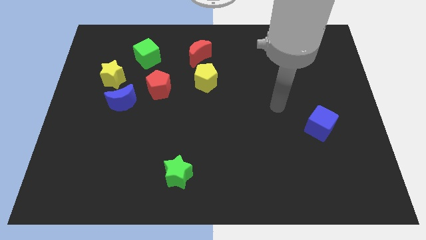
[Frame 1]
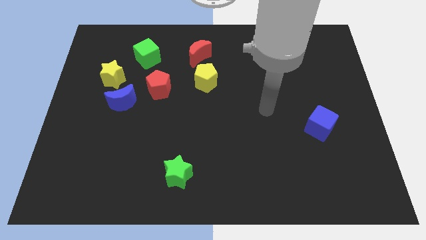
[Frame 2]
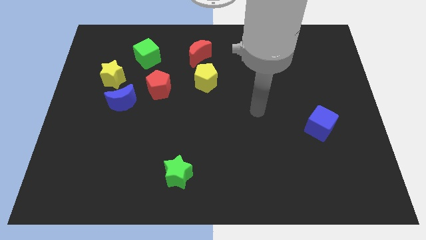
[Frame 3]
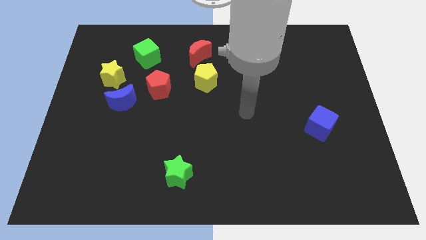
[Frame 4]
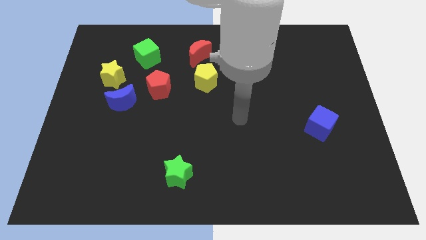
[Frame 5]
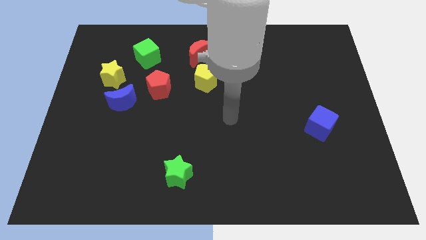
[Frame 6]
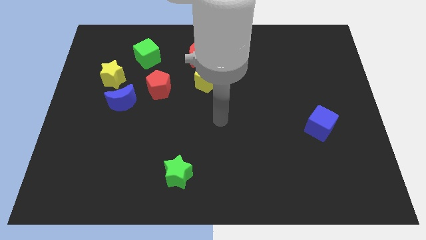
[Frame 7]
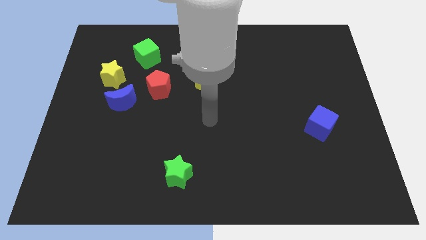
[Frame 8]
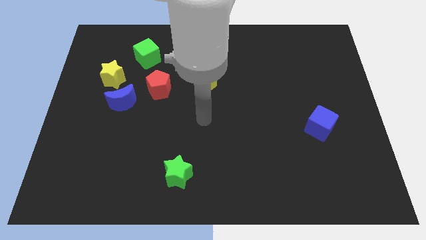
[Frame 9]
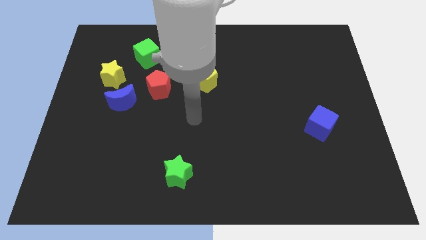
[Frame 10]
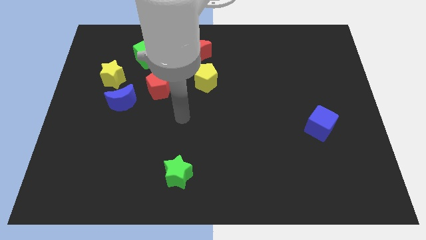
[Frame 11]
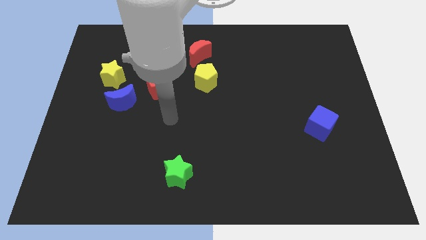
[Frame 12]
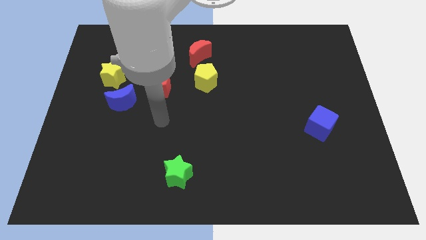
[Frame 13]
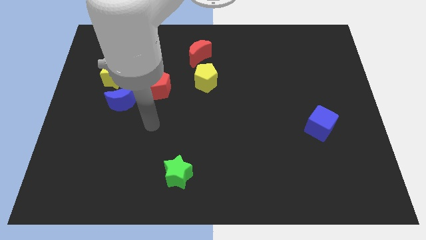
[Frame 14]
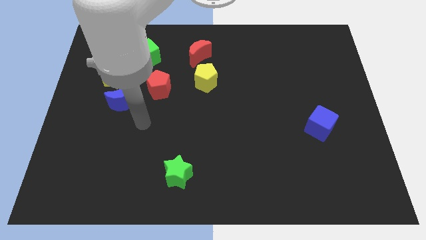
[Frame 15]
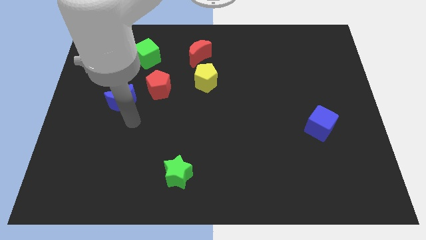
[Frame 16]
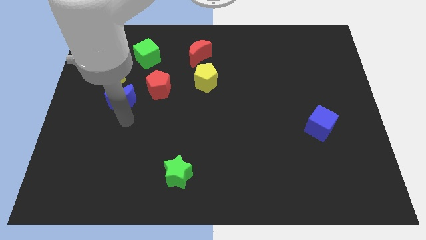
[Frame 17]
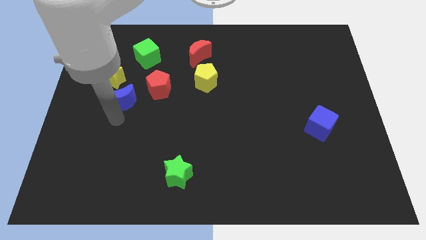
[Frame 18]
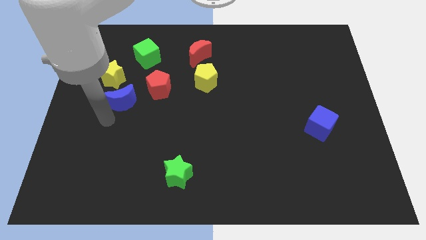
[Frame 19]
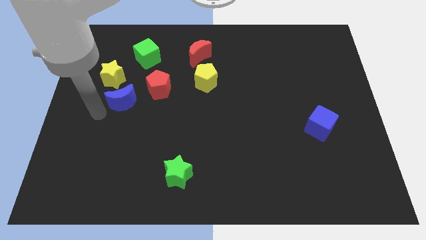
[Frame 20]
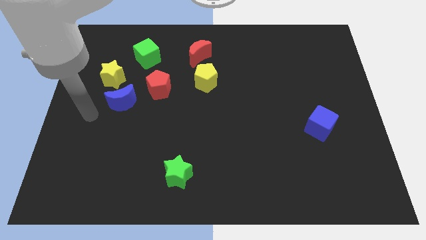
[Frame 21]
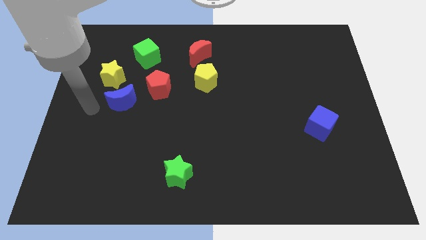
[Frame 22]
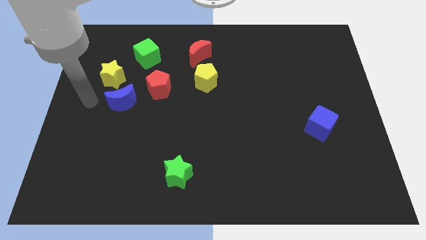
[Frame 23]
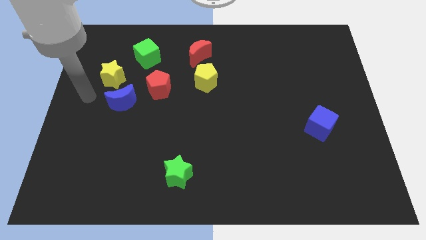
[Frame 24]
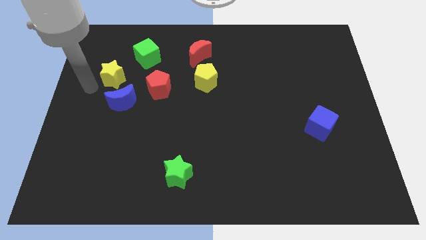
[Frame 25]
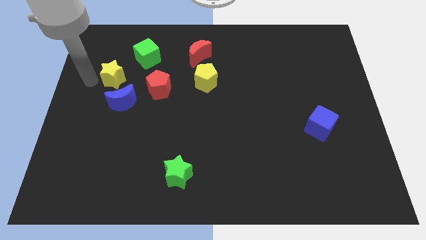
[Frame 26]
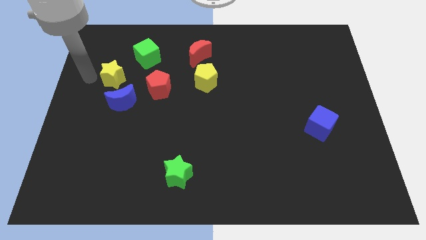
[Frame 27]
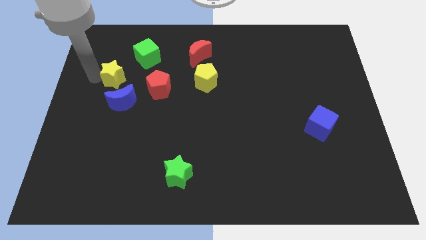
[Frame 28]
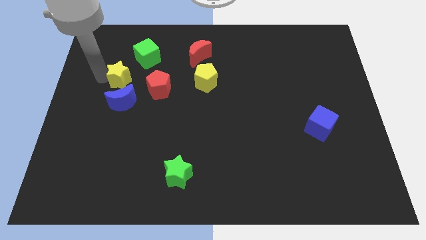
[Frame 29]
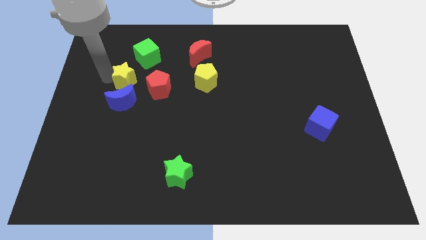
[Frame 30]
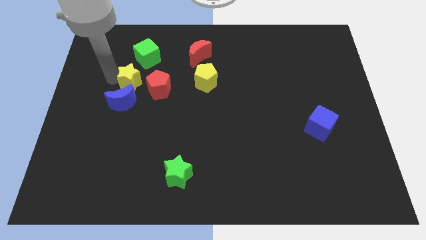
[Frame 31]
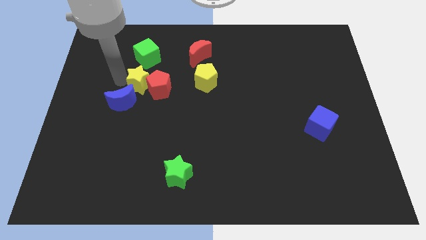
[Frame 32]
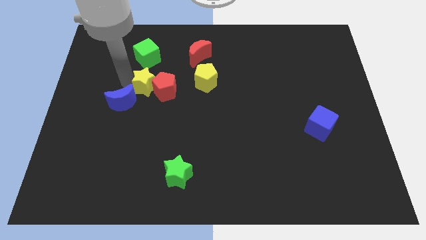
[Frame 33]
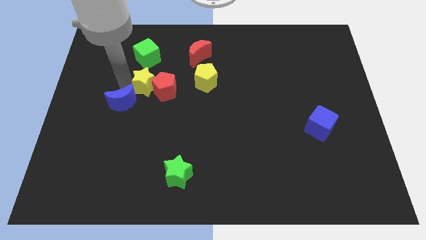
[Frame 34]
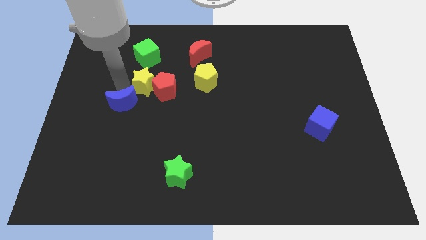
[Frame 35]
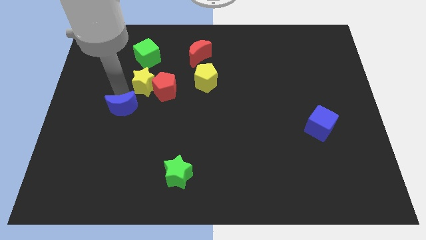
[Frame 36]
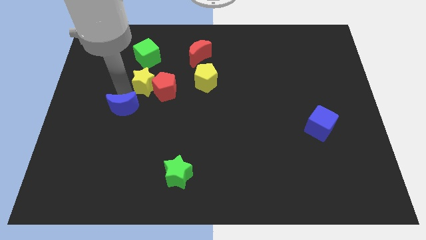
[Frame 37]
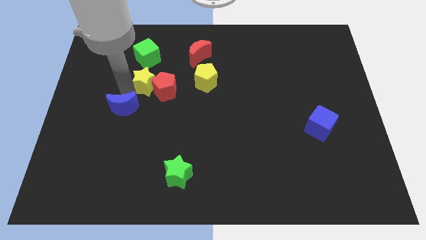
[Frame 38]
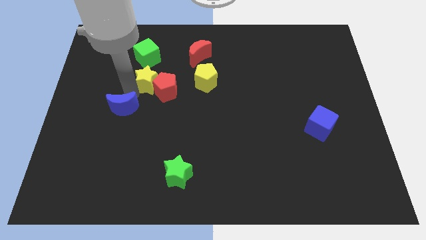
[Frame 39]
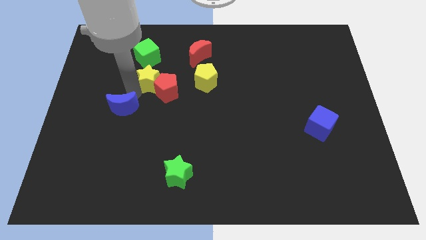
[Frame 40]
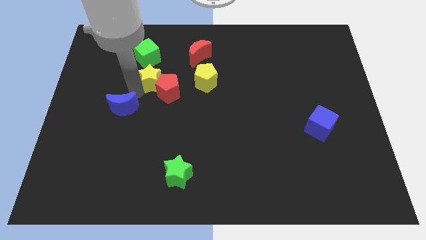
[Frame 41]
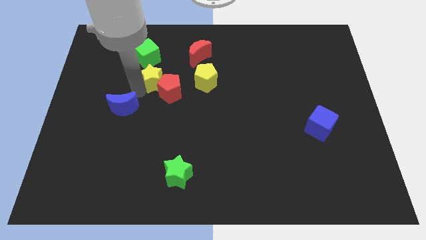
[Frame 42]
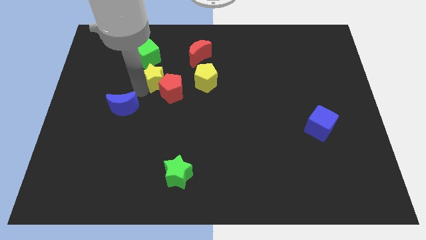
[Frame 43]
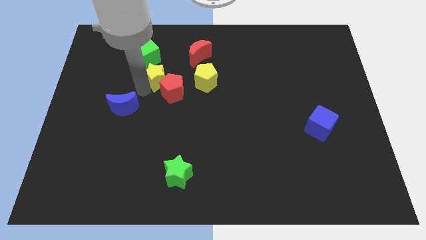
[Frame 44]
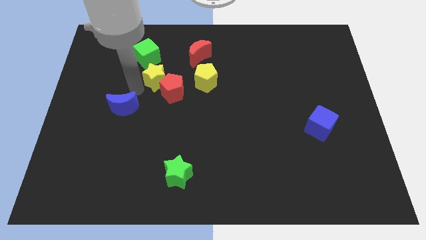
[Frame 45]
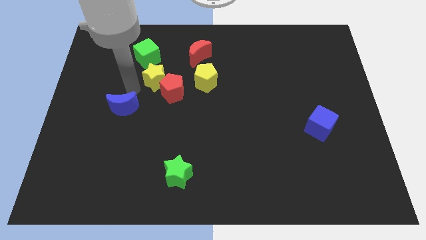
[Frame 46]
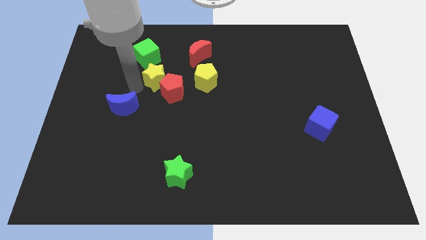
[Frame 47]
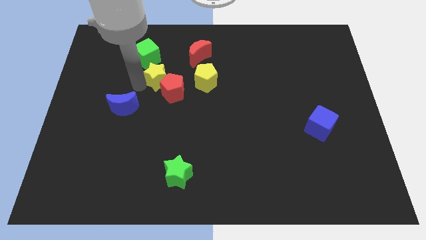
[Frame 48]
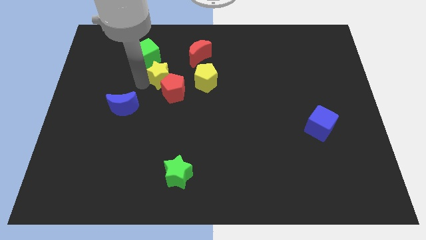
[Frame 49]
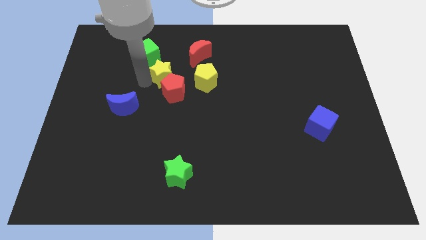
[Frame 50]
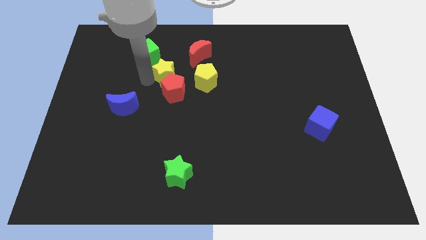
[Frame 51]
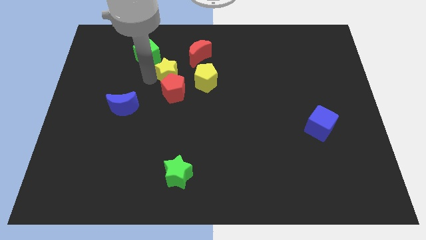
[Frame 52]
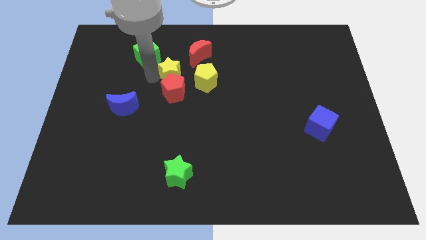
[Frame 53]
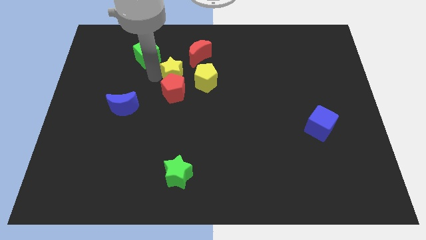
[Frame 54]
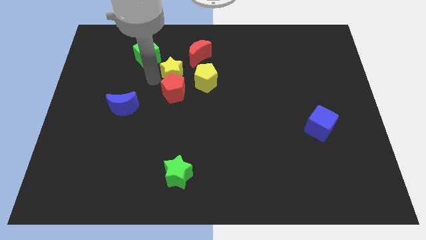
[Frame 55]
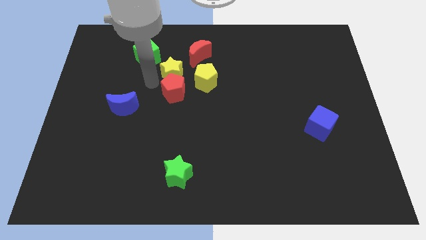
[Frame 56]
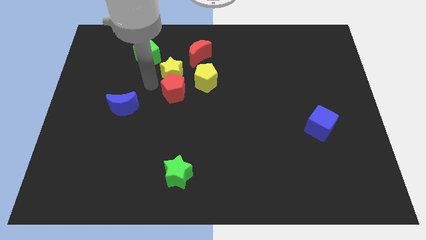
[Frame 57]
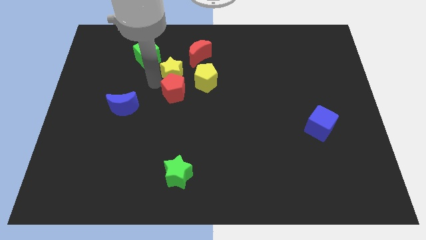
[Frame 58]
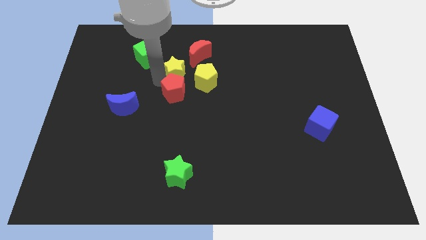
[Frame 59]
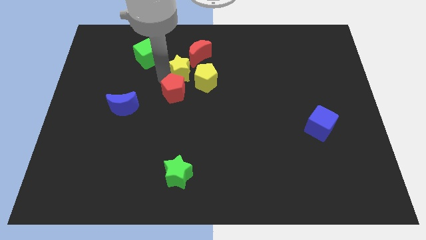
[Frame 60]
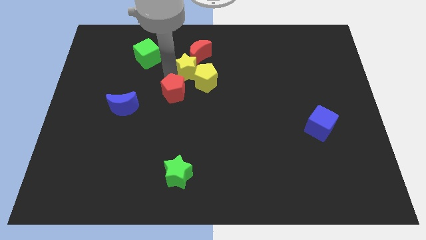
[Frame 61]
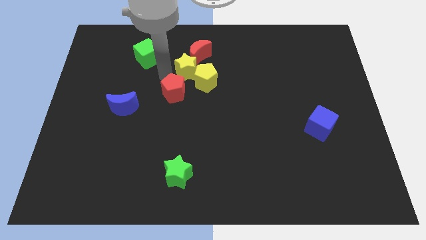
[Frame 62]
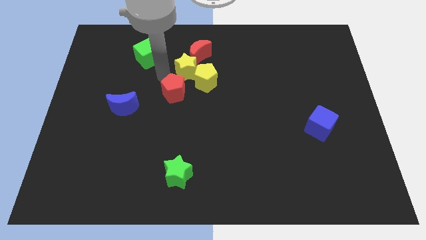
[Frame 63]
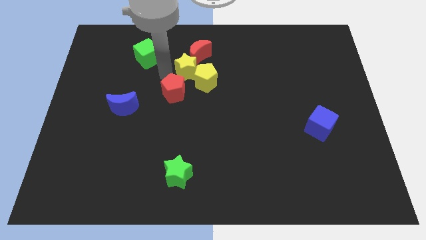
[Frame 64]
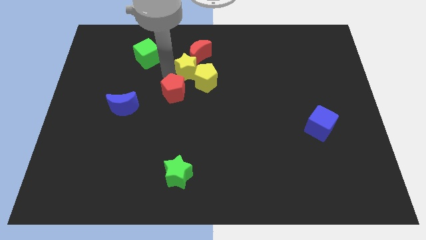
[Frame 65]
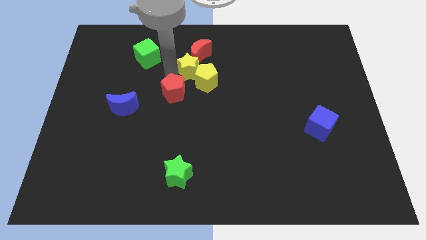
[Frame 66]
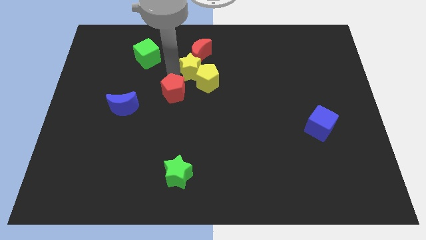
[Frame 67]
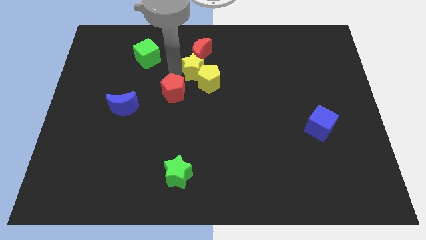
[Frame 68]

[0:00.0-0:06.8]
slide the yellow star right

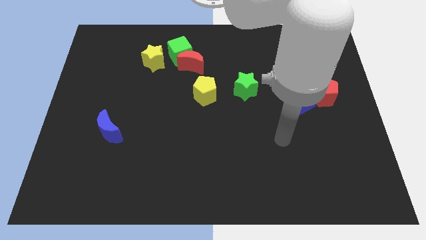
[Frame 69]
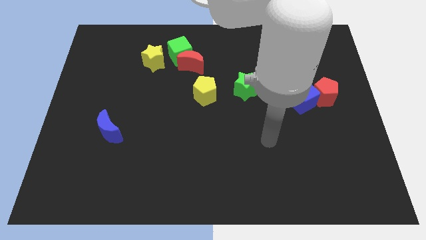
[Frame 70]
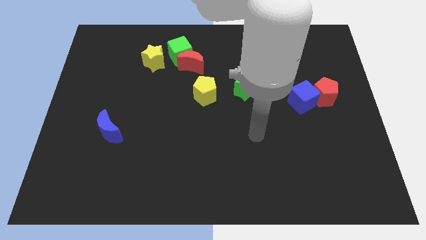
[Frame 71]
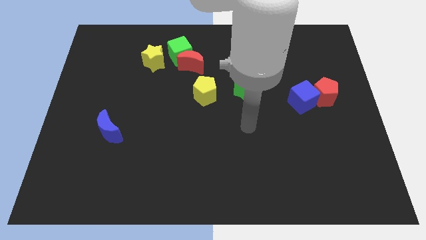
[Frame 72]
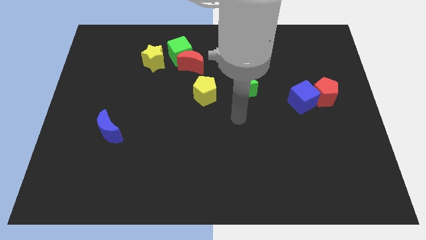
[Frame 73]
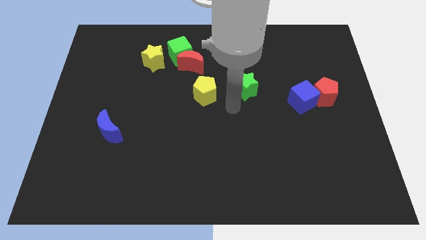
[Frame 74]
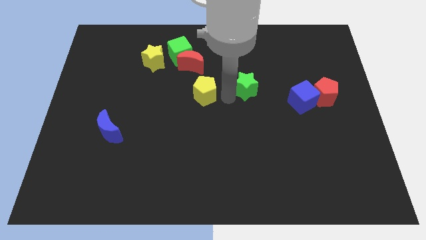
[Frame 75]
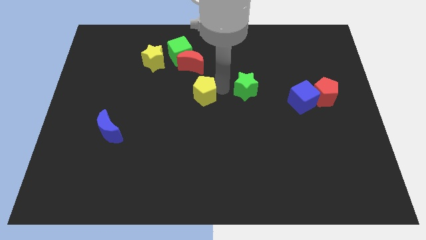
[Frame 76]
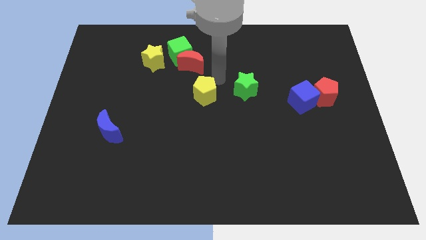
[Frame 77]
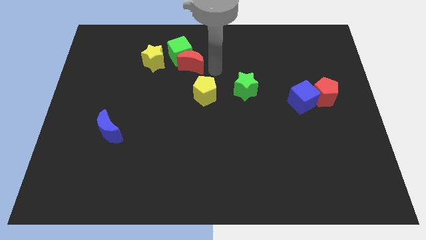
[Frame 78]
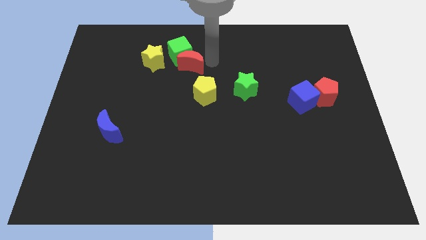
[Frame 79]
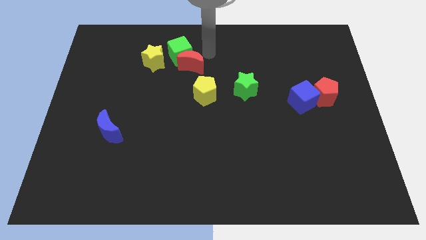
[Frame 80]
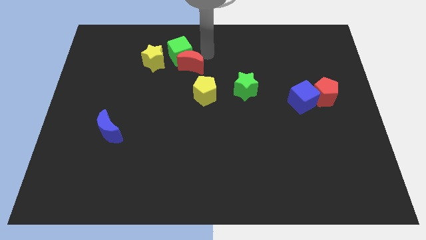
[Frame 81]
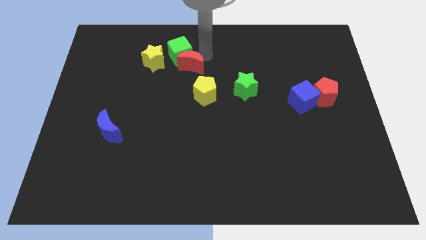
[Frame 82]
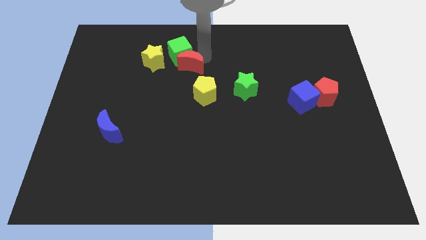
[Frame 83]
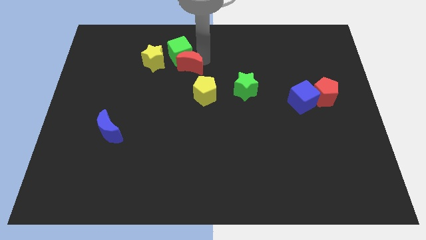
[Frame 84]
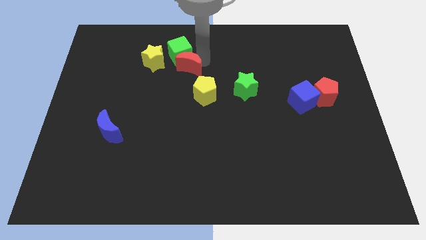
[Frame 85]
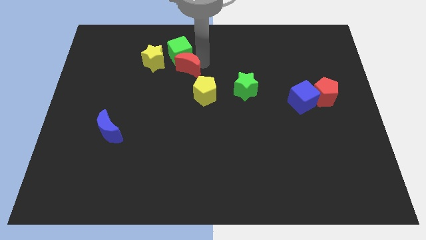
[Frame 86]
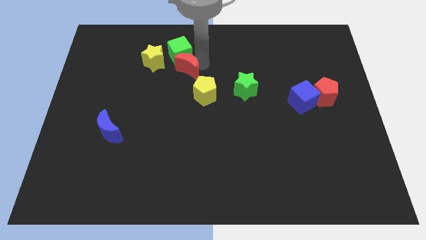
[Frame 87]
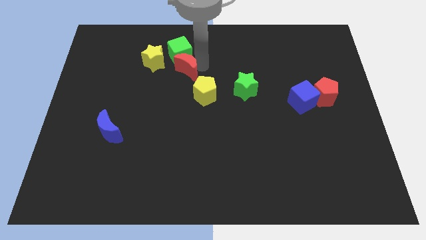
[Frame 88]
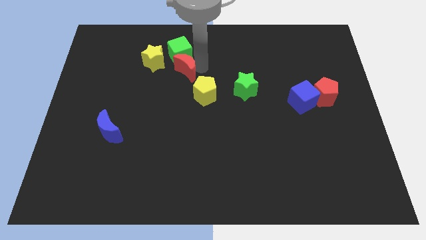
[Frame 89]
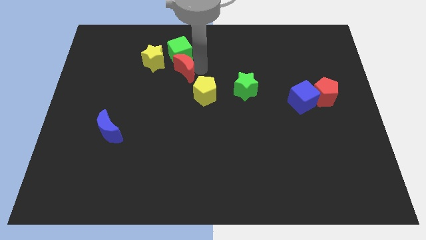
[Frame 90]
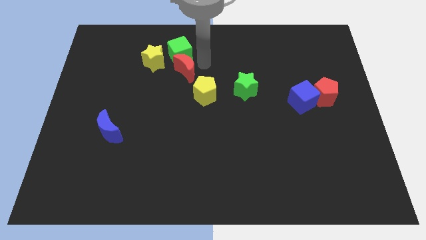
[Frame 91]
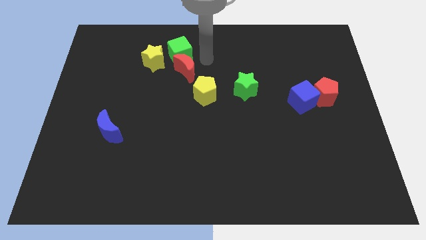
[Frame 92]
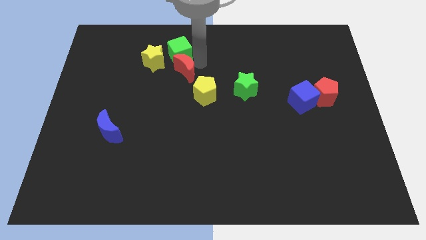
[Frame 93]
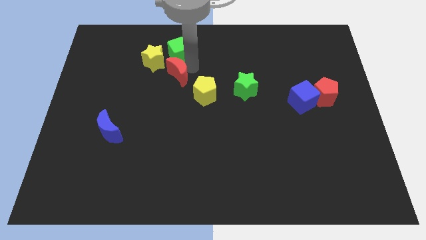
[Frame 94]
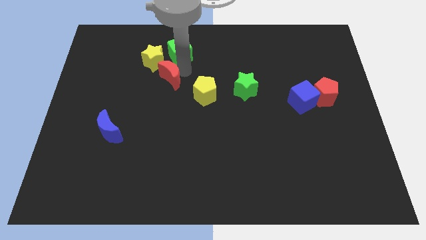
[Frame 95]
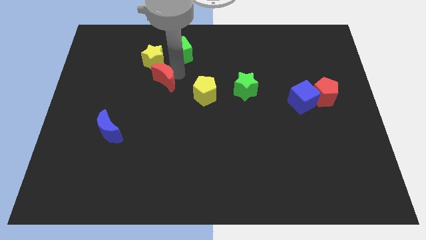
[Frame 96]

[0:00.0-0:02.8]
move the red moon a bit down and to the left
